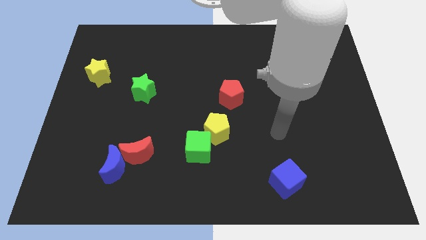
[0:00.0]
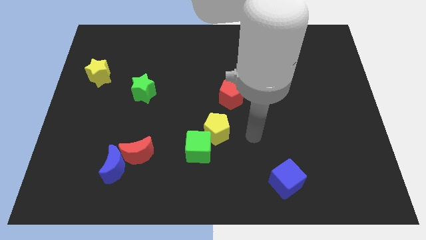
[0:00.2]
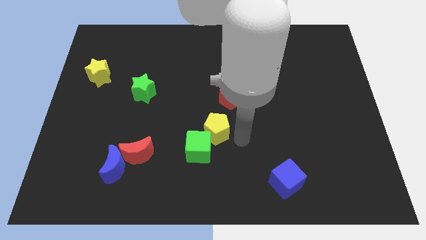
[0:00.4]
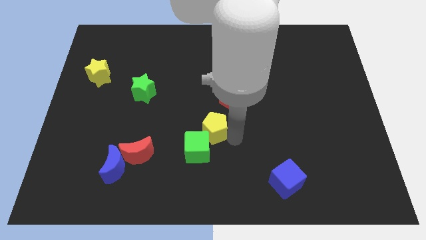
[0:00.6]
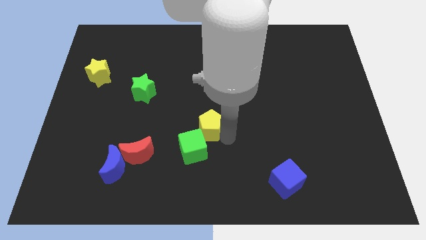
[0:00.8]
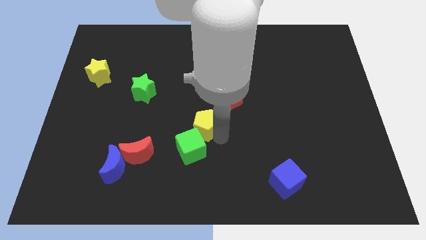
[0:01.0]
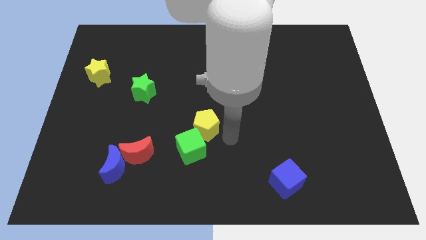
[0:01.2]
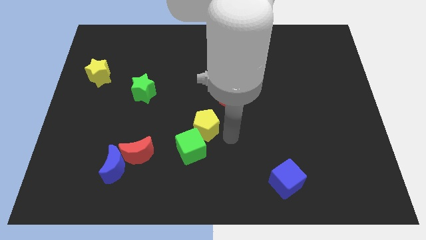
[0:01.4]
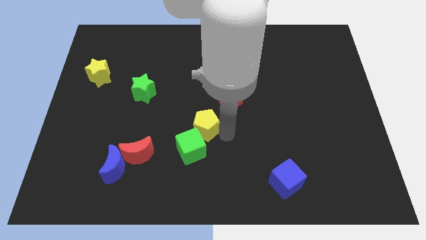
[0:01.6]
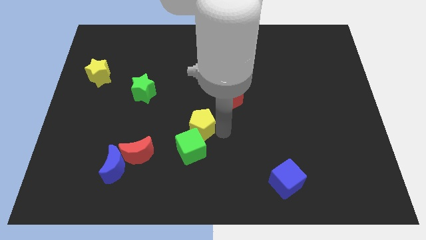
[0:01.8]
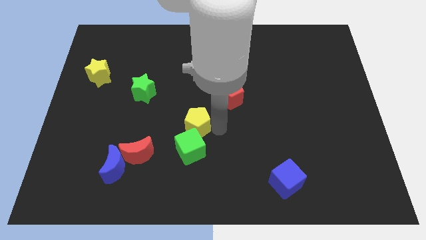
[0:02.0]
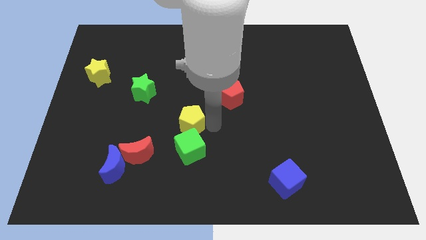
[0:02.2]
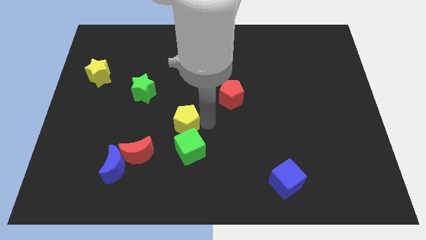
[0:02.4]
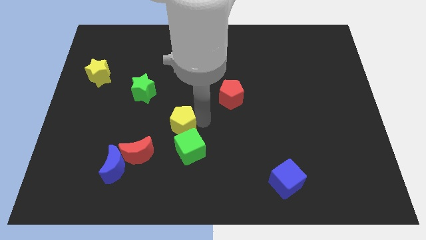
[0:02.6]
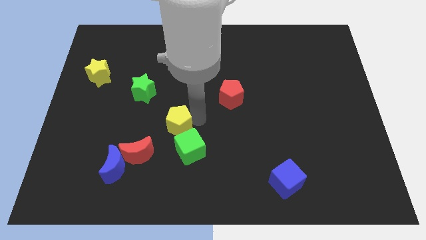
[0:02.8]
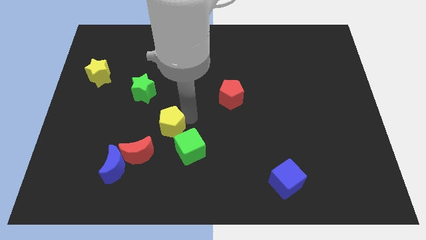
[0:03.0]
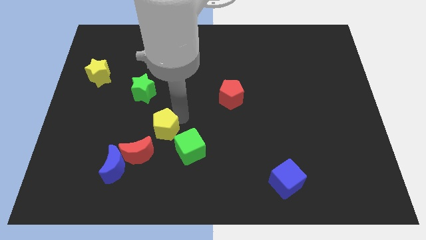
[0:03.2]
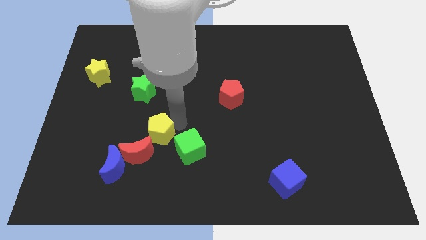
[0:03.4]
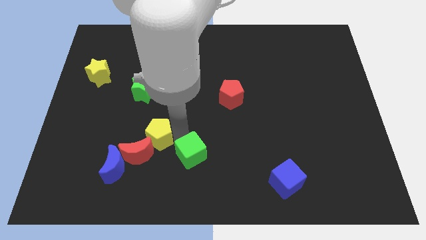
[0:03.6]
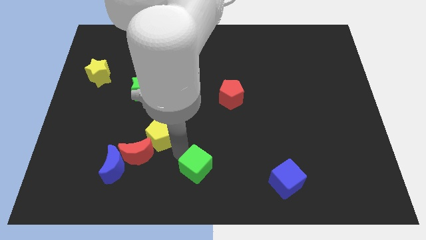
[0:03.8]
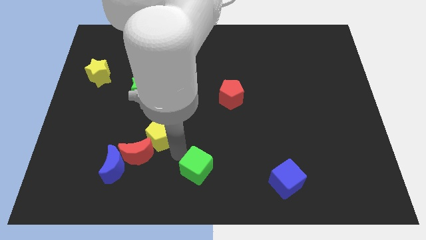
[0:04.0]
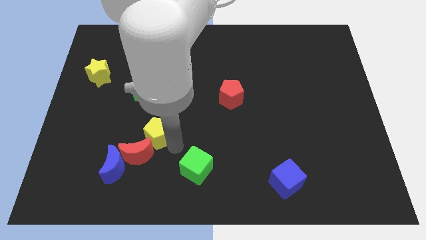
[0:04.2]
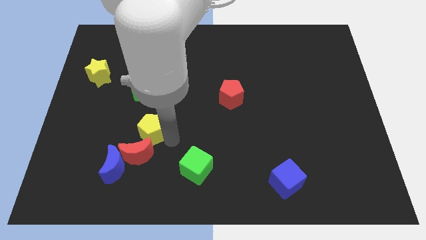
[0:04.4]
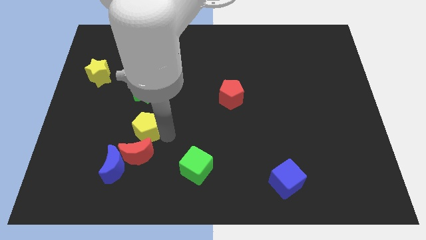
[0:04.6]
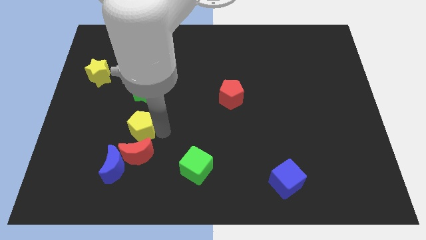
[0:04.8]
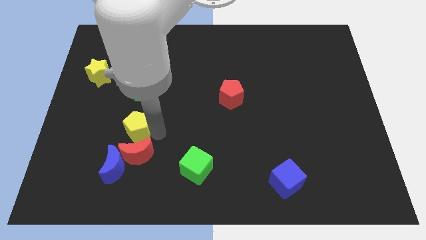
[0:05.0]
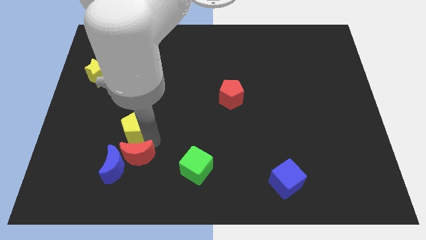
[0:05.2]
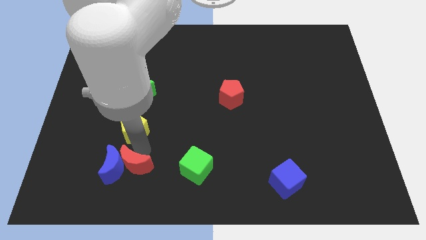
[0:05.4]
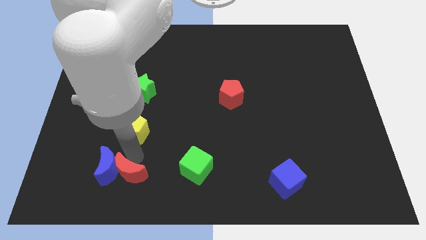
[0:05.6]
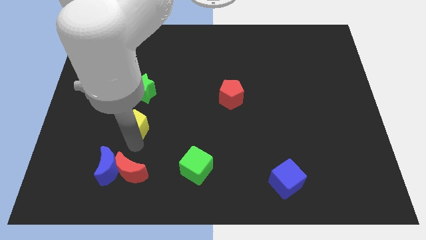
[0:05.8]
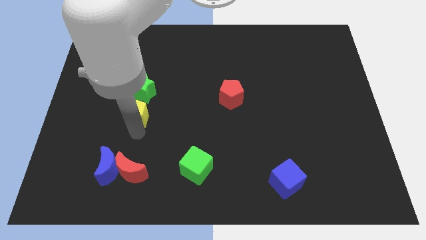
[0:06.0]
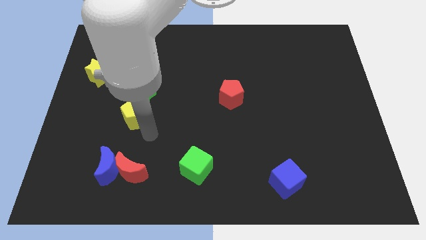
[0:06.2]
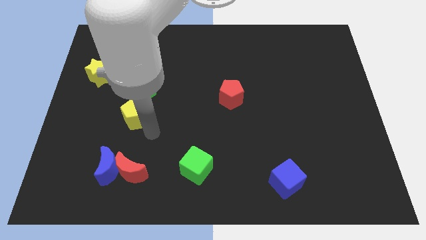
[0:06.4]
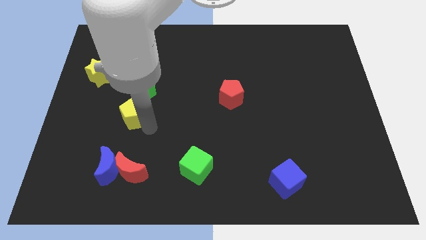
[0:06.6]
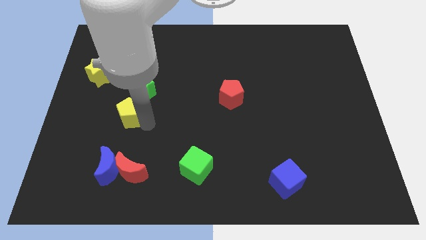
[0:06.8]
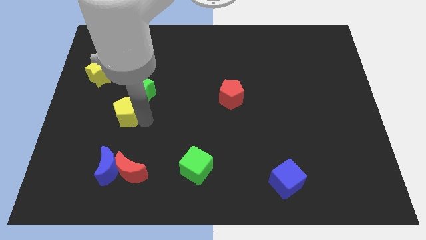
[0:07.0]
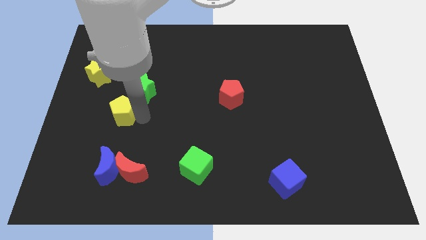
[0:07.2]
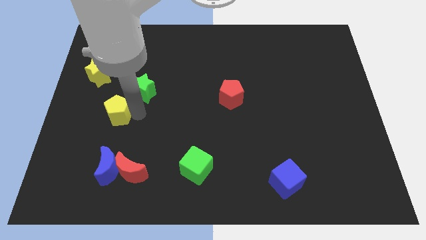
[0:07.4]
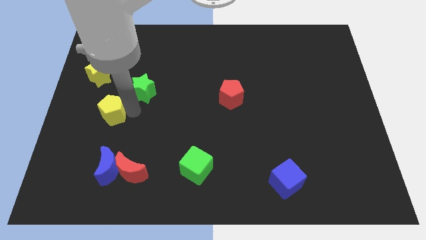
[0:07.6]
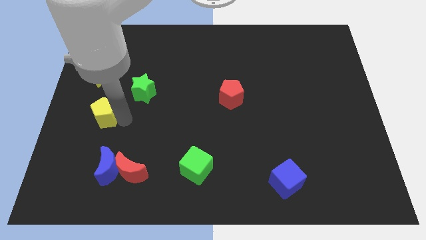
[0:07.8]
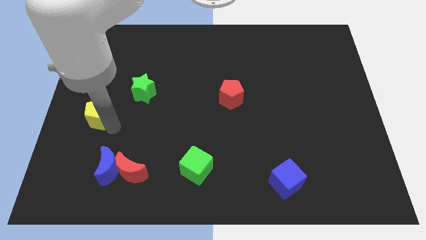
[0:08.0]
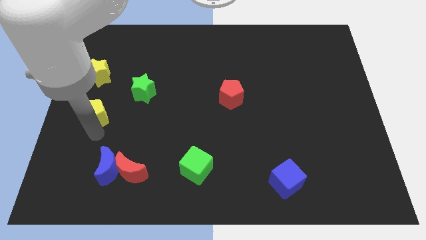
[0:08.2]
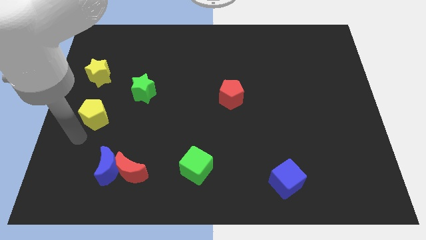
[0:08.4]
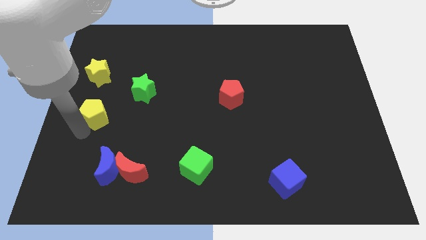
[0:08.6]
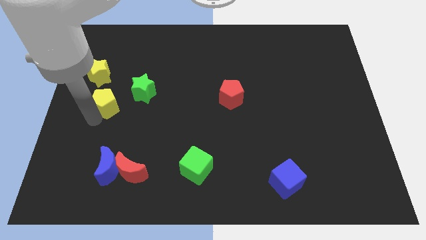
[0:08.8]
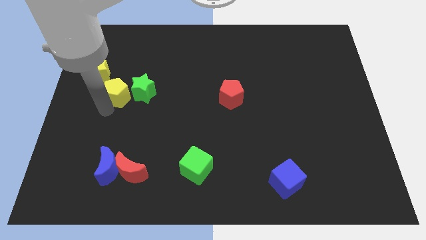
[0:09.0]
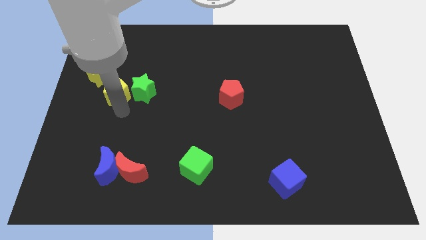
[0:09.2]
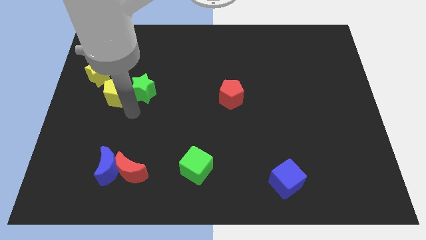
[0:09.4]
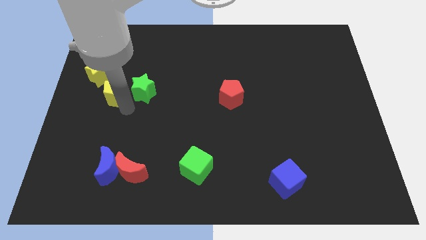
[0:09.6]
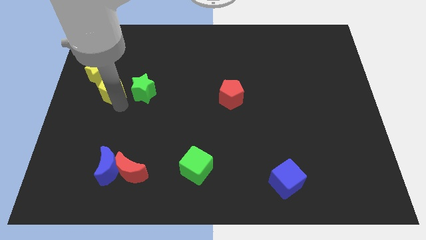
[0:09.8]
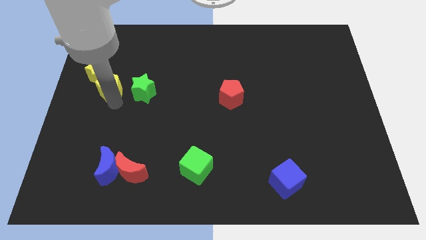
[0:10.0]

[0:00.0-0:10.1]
push the yellow pentagon to the yellow star
